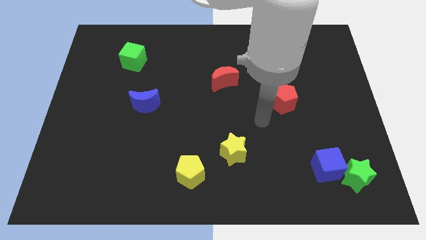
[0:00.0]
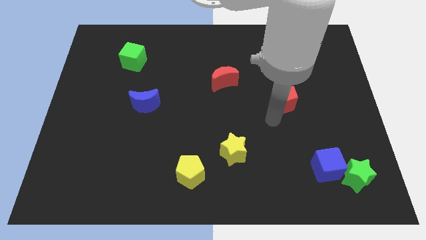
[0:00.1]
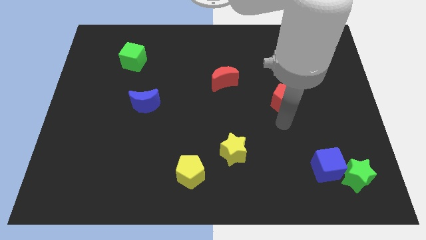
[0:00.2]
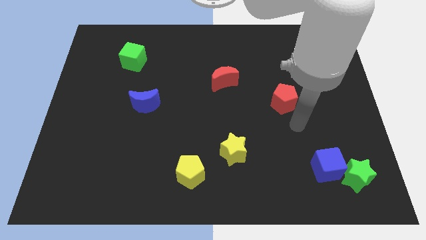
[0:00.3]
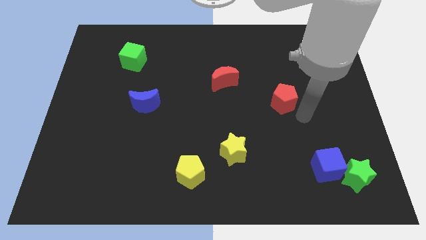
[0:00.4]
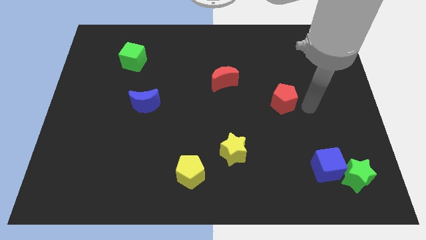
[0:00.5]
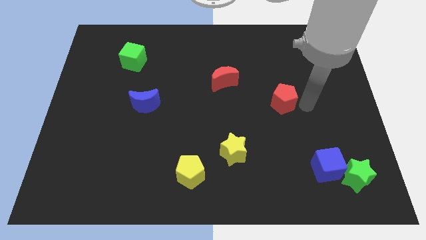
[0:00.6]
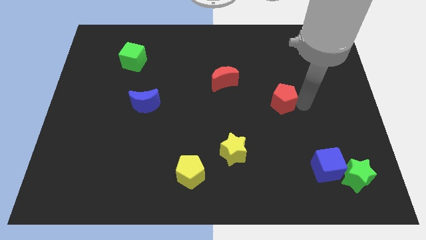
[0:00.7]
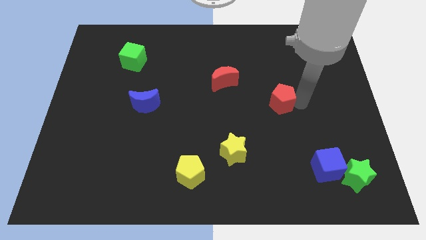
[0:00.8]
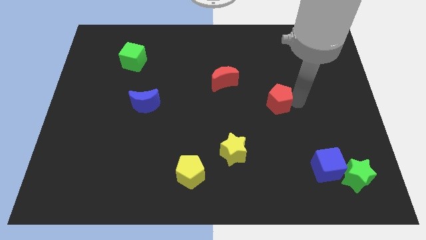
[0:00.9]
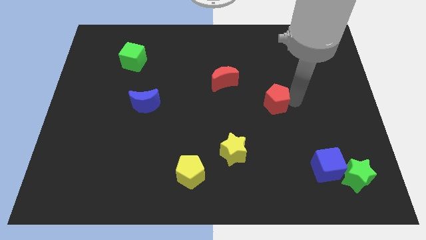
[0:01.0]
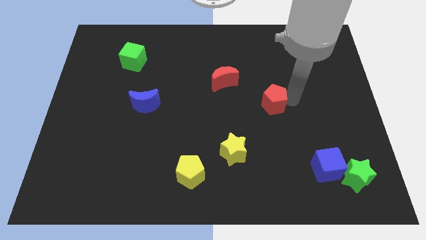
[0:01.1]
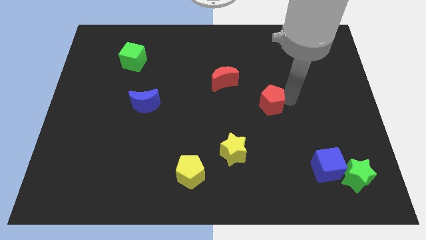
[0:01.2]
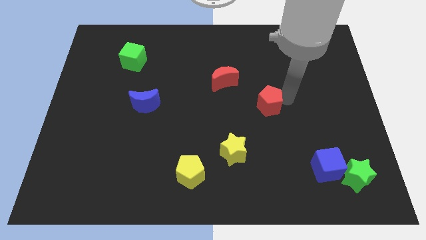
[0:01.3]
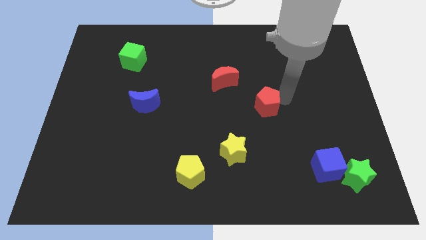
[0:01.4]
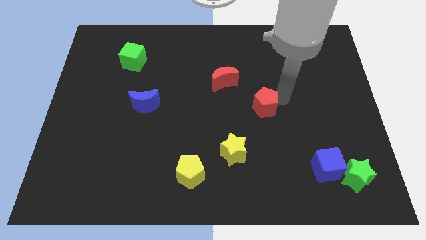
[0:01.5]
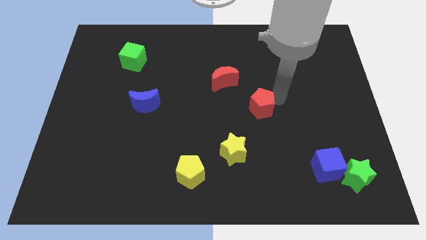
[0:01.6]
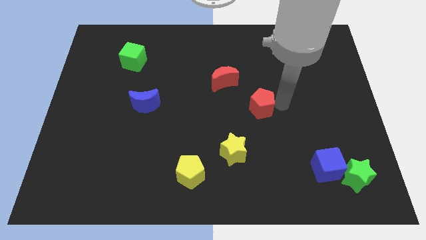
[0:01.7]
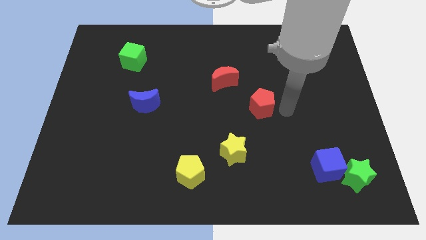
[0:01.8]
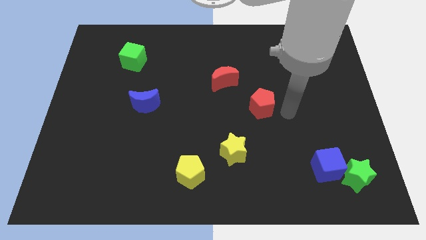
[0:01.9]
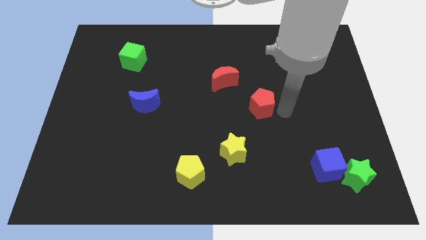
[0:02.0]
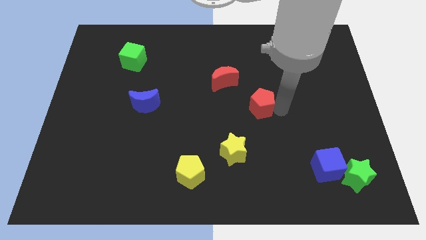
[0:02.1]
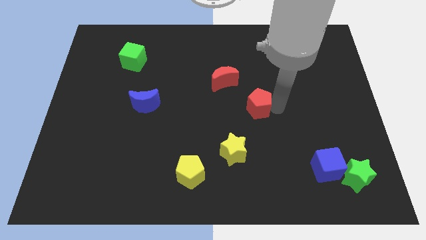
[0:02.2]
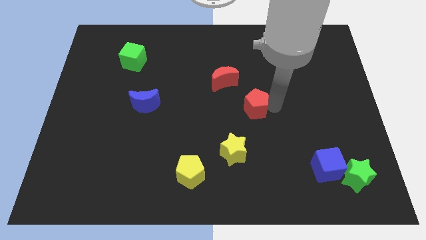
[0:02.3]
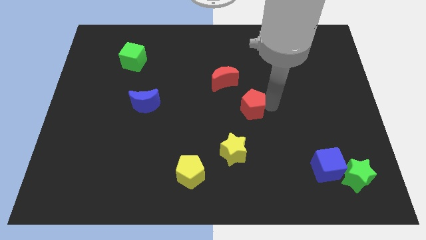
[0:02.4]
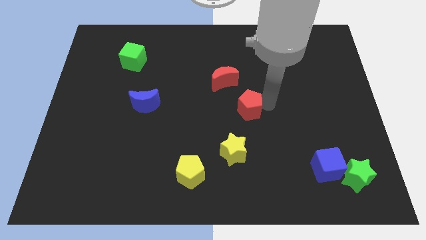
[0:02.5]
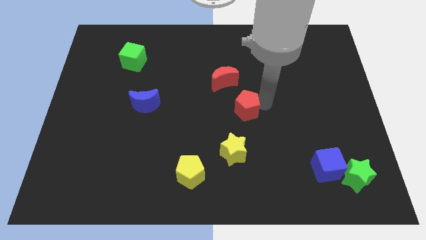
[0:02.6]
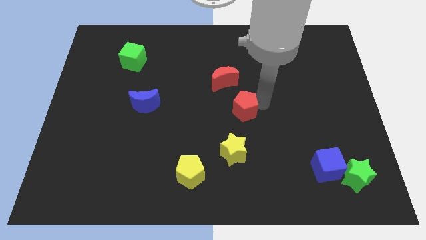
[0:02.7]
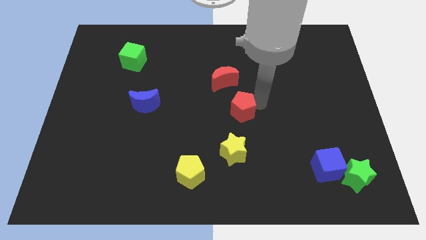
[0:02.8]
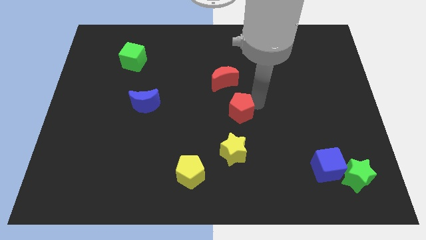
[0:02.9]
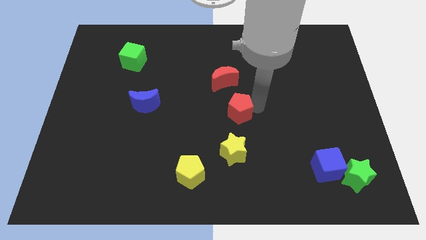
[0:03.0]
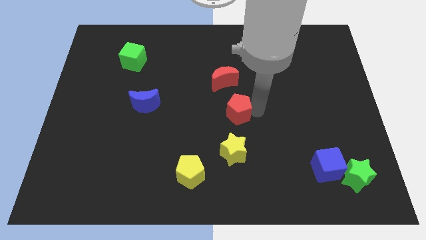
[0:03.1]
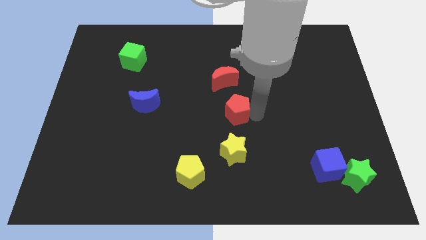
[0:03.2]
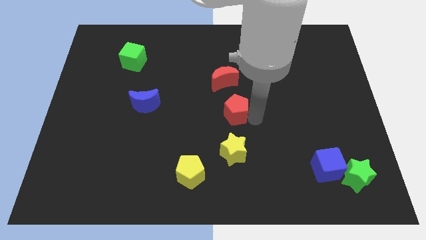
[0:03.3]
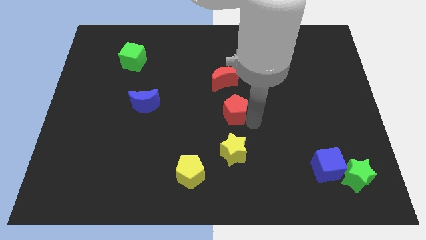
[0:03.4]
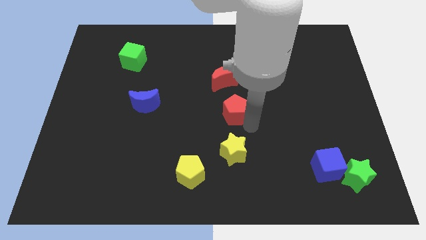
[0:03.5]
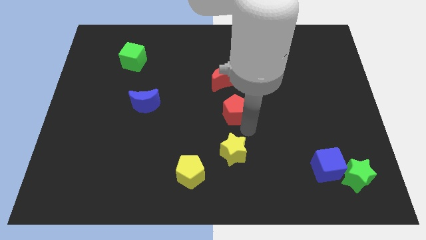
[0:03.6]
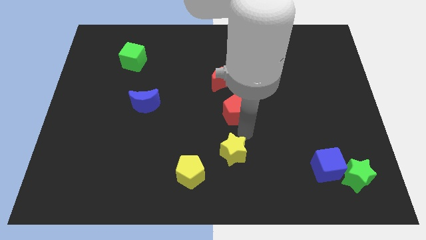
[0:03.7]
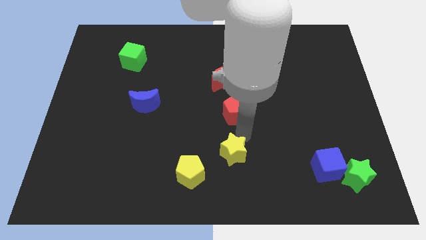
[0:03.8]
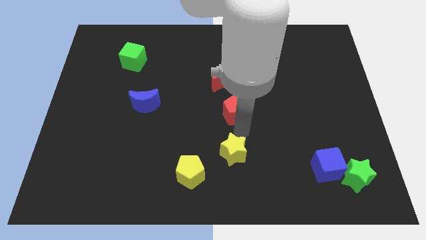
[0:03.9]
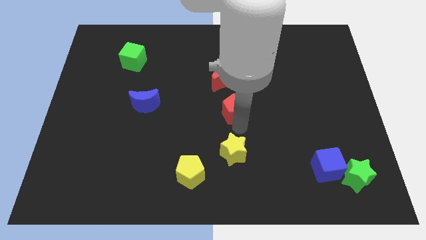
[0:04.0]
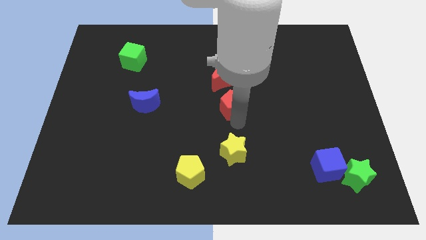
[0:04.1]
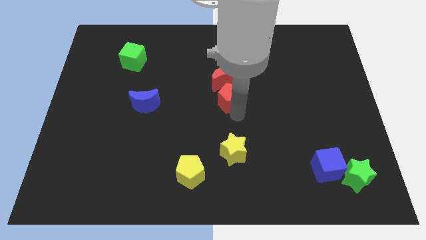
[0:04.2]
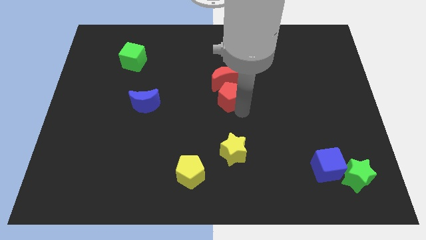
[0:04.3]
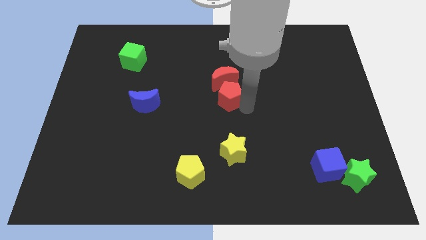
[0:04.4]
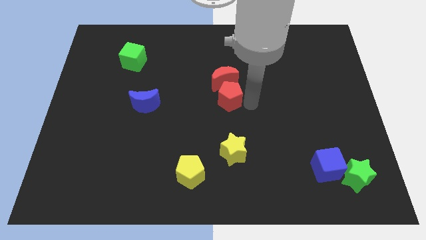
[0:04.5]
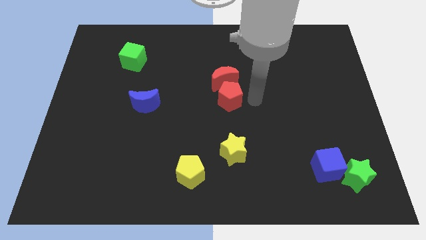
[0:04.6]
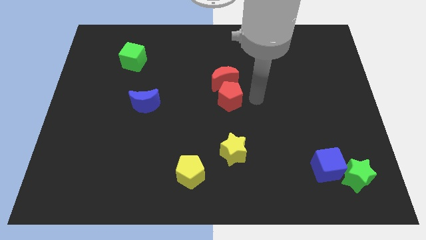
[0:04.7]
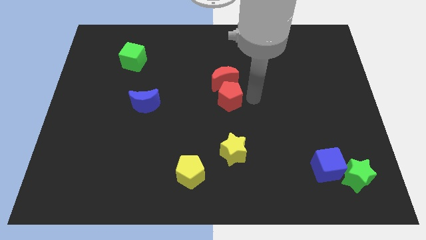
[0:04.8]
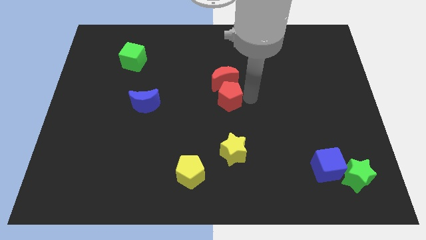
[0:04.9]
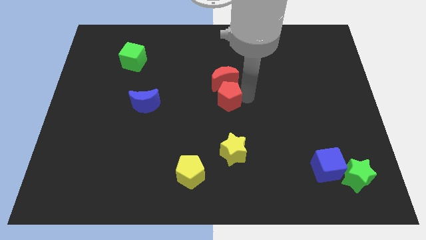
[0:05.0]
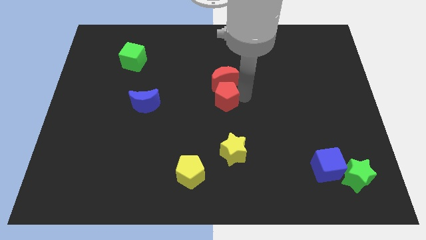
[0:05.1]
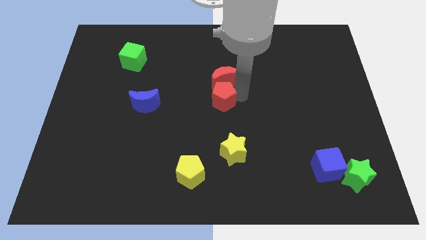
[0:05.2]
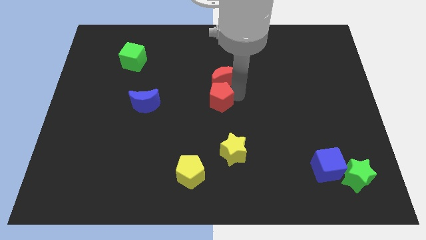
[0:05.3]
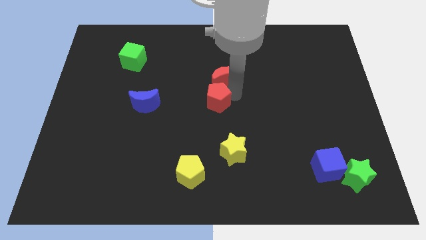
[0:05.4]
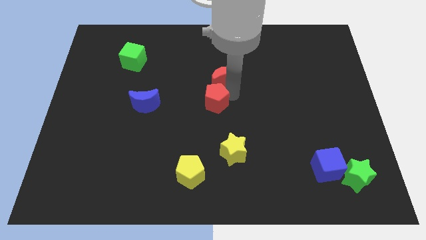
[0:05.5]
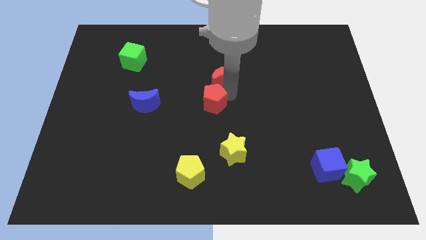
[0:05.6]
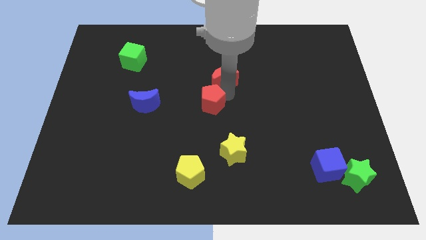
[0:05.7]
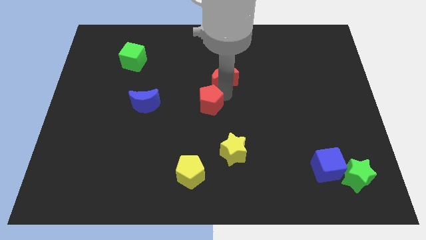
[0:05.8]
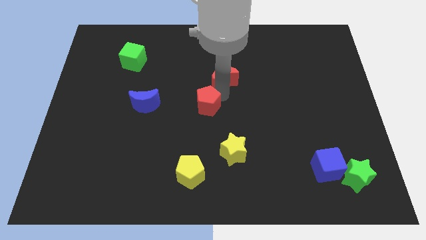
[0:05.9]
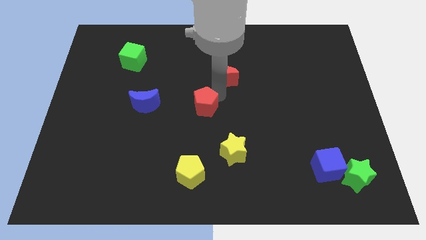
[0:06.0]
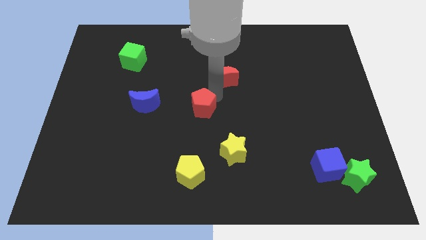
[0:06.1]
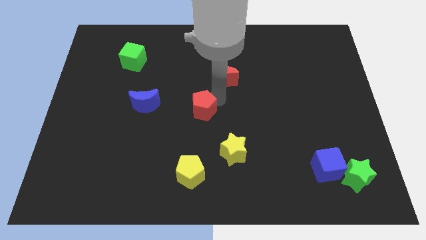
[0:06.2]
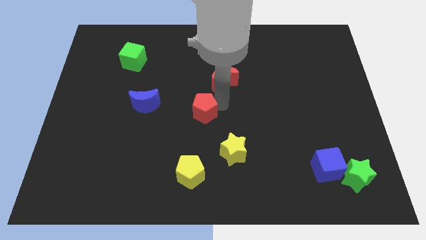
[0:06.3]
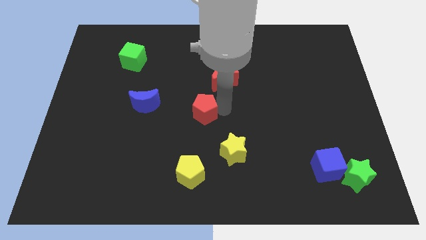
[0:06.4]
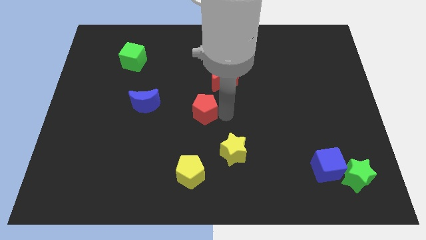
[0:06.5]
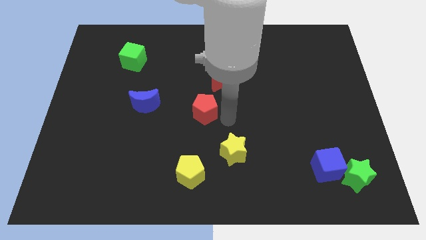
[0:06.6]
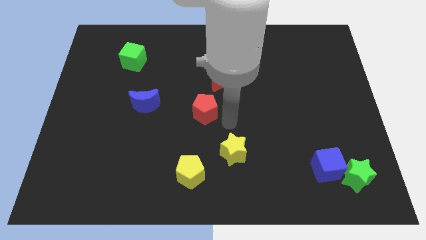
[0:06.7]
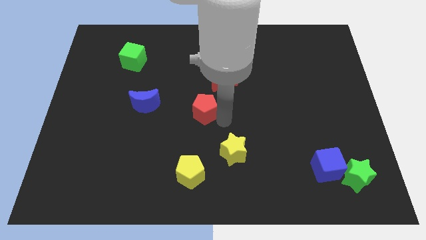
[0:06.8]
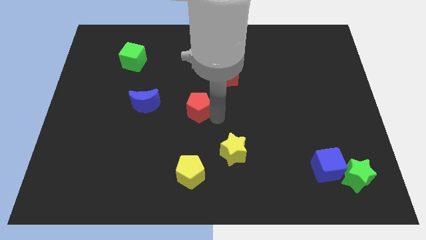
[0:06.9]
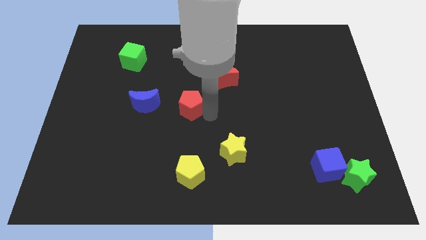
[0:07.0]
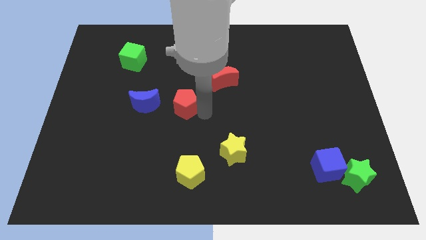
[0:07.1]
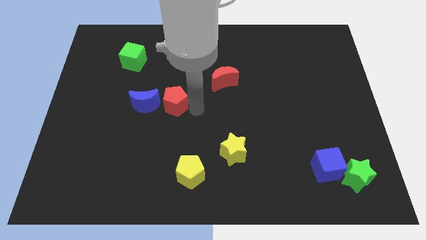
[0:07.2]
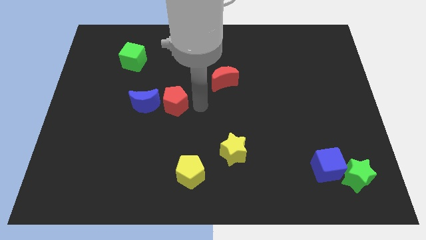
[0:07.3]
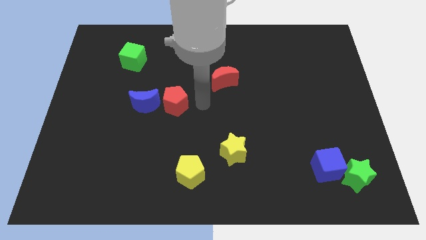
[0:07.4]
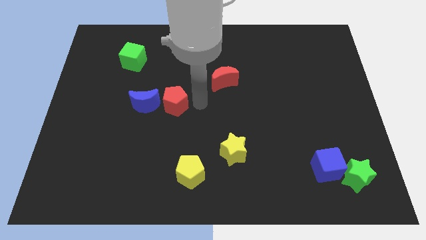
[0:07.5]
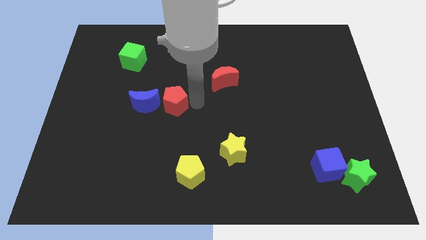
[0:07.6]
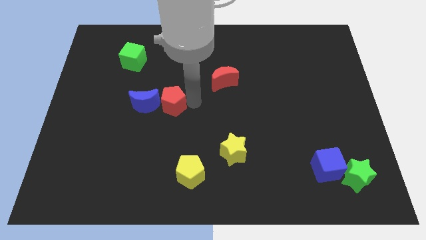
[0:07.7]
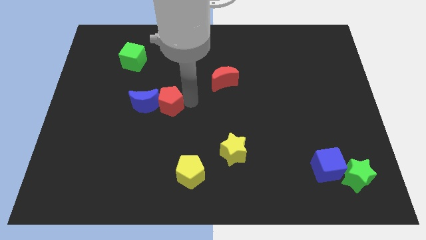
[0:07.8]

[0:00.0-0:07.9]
slide the red pentagon close to the blue moon
